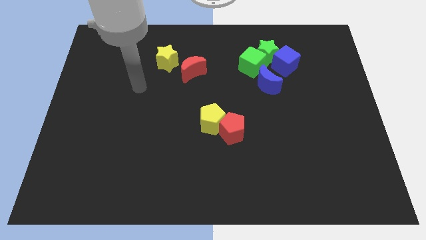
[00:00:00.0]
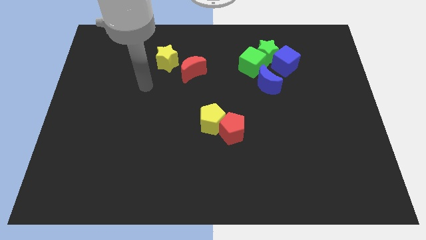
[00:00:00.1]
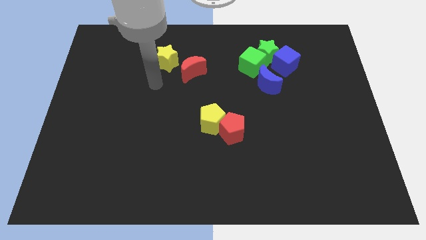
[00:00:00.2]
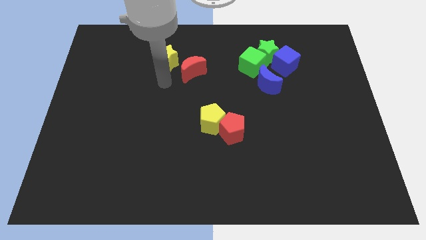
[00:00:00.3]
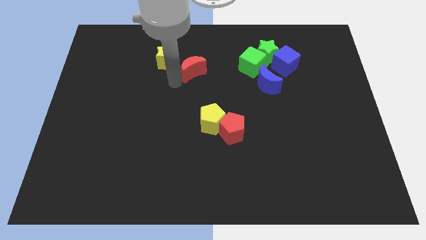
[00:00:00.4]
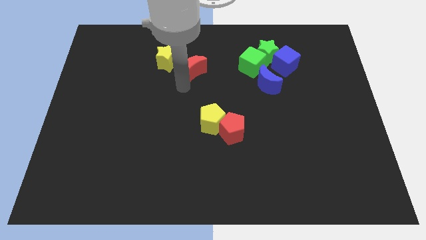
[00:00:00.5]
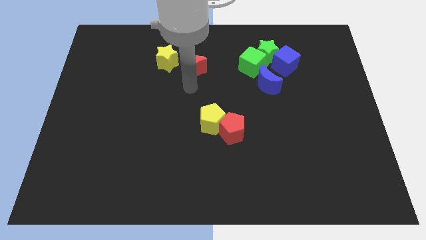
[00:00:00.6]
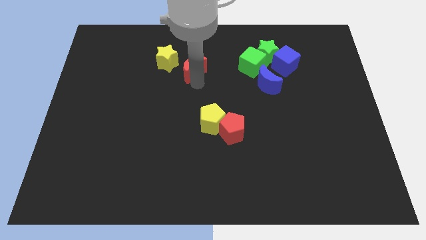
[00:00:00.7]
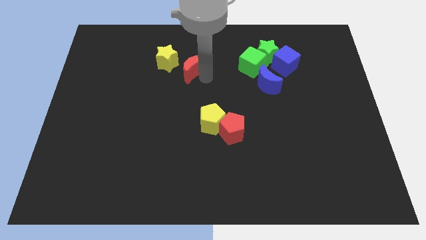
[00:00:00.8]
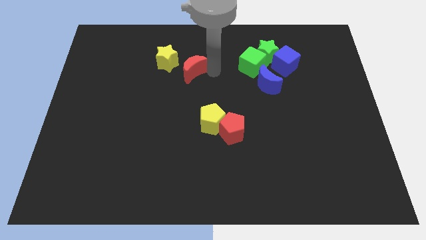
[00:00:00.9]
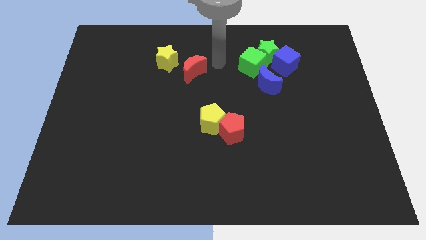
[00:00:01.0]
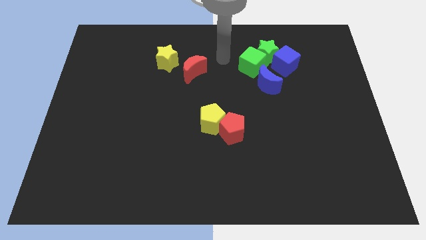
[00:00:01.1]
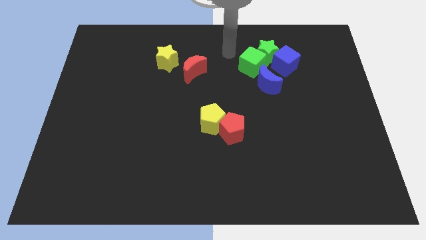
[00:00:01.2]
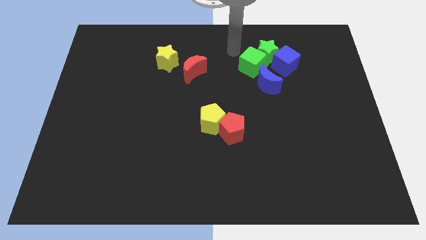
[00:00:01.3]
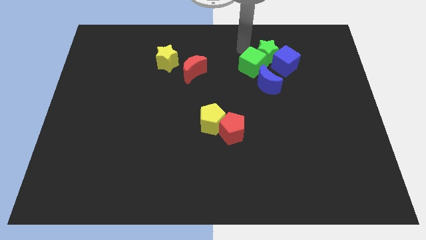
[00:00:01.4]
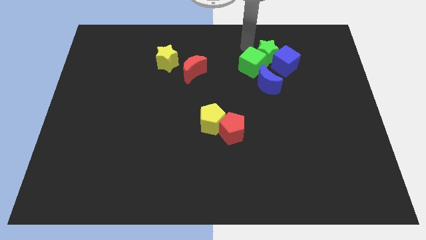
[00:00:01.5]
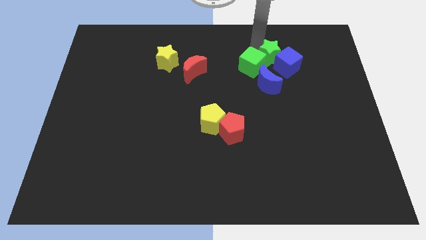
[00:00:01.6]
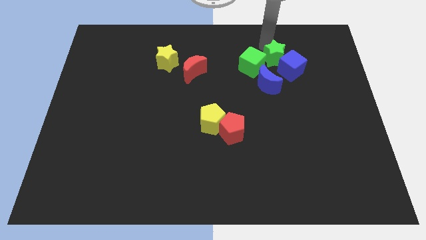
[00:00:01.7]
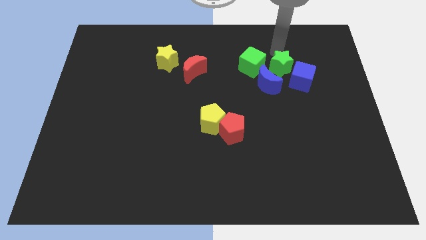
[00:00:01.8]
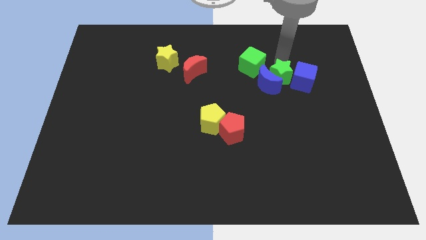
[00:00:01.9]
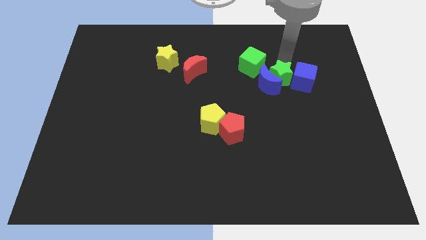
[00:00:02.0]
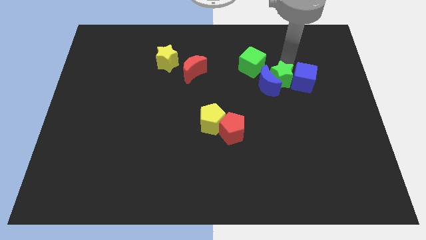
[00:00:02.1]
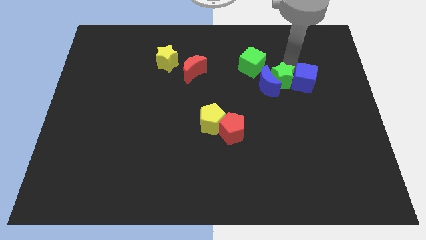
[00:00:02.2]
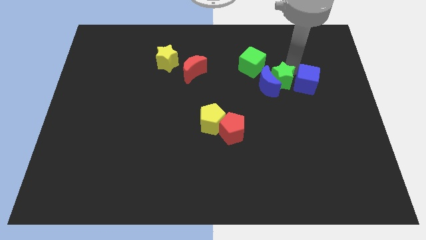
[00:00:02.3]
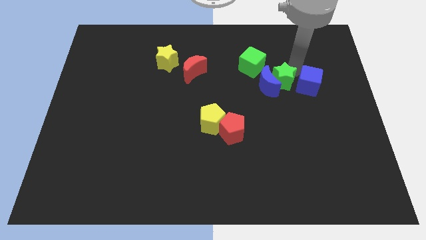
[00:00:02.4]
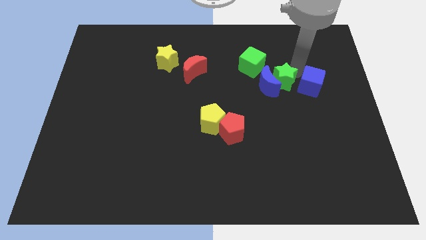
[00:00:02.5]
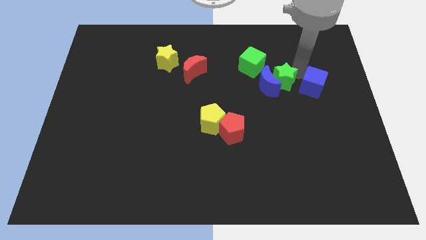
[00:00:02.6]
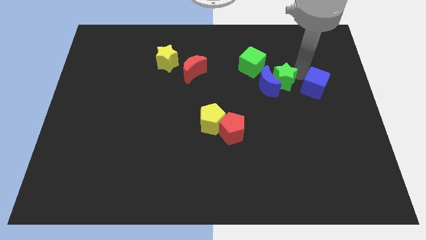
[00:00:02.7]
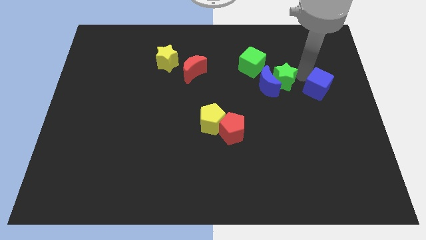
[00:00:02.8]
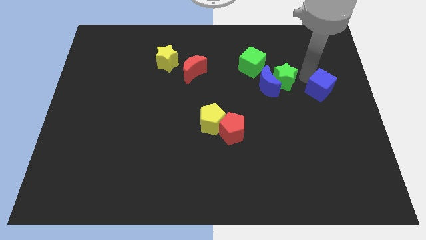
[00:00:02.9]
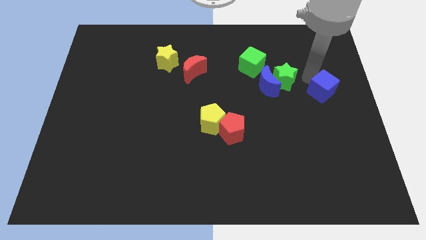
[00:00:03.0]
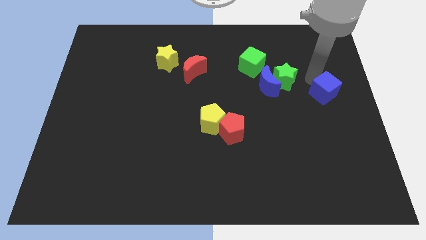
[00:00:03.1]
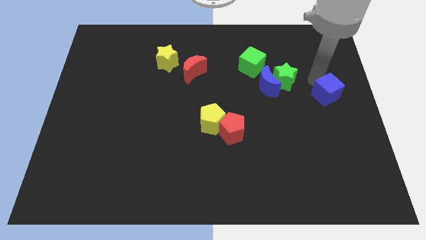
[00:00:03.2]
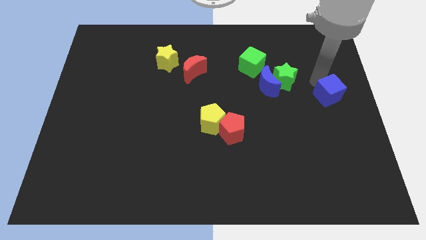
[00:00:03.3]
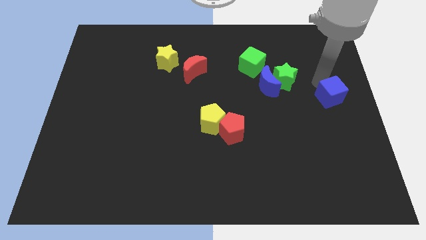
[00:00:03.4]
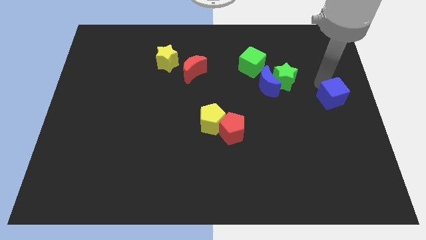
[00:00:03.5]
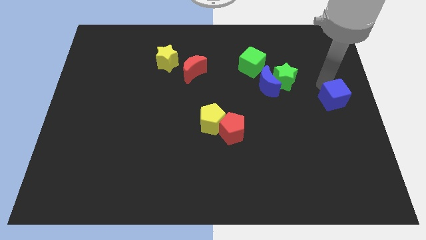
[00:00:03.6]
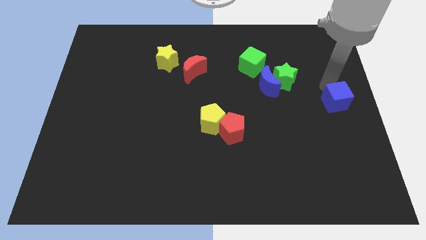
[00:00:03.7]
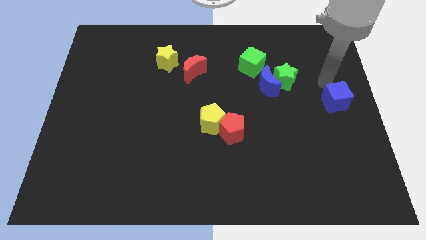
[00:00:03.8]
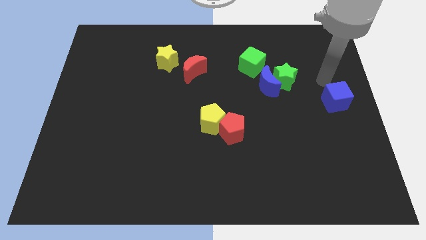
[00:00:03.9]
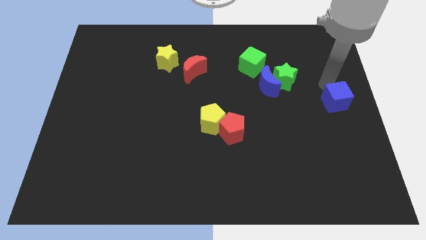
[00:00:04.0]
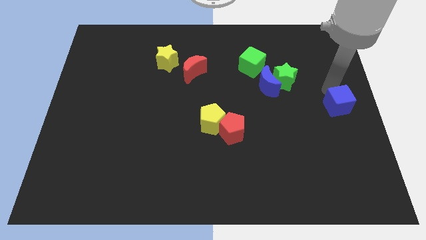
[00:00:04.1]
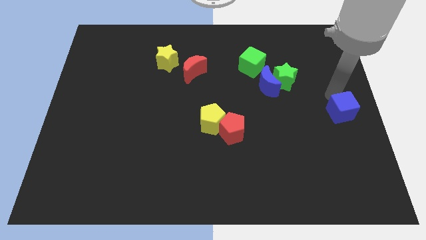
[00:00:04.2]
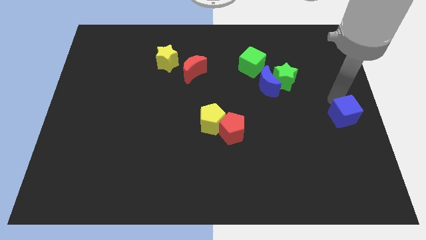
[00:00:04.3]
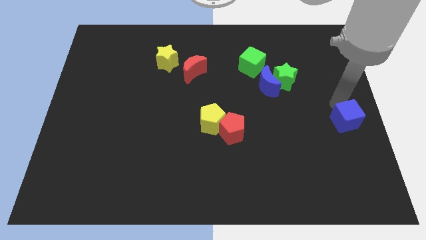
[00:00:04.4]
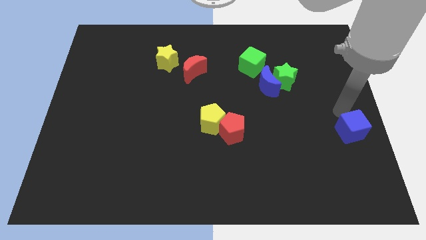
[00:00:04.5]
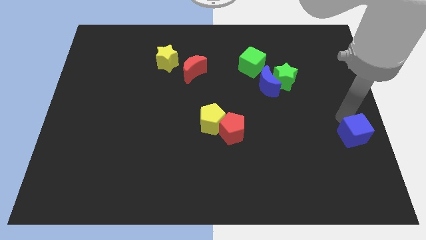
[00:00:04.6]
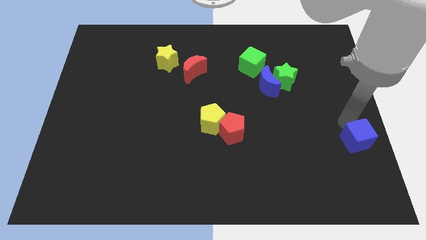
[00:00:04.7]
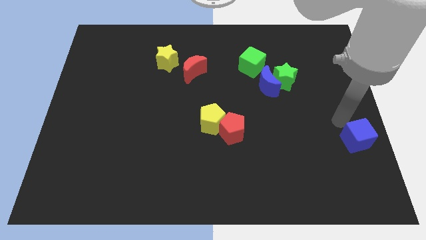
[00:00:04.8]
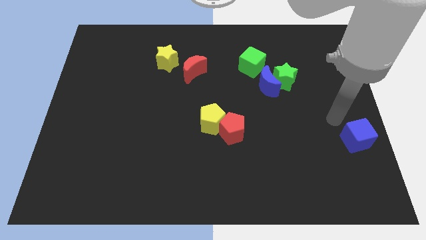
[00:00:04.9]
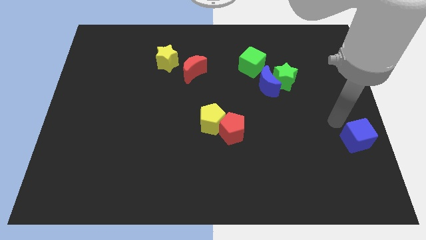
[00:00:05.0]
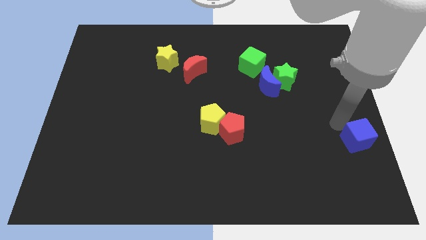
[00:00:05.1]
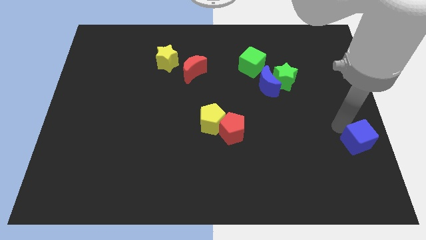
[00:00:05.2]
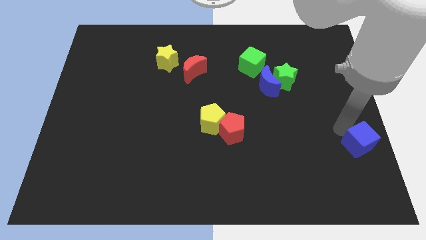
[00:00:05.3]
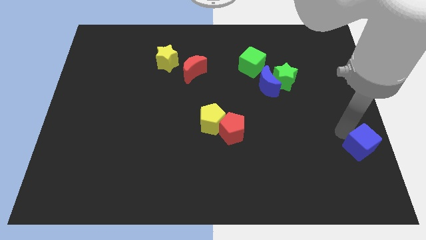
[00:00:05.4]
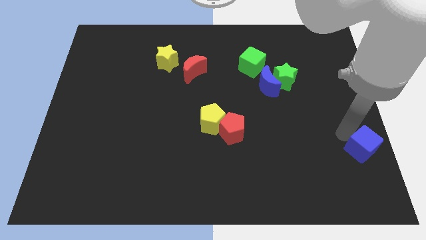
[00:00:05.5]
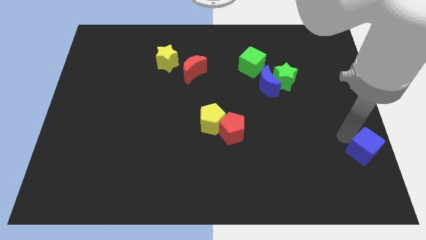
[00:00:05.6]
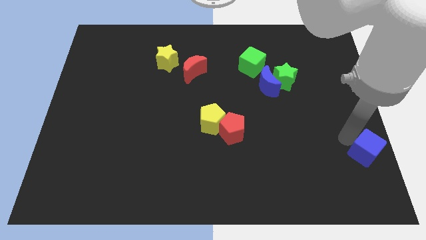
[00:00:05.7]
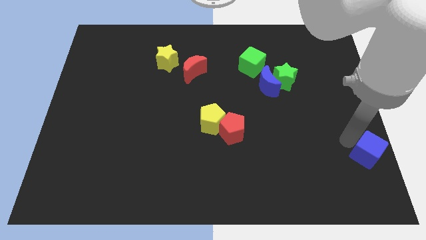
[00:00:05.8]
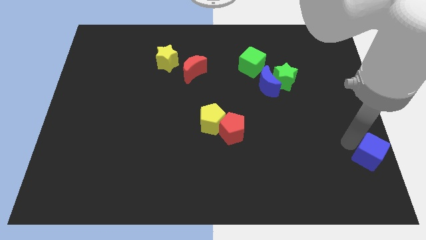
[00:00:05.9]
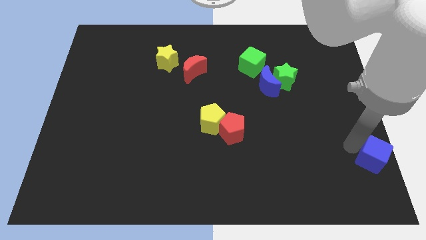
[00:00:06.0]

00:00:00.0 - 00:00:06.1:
slide the blue cube to the bottom right corner
